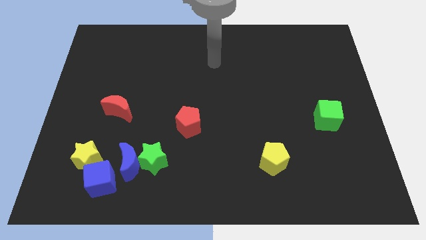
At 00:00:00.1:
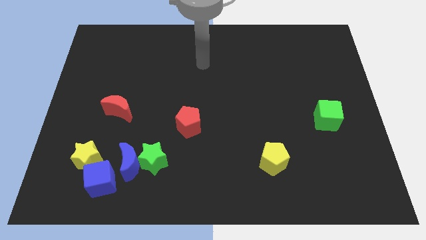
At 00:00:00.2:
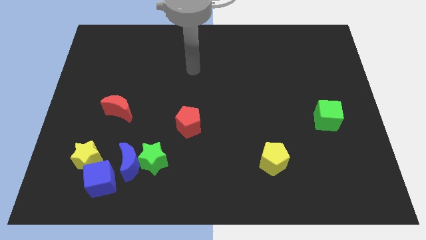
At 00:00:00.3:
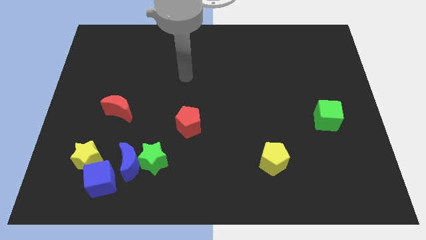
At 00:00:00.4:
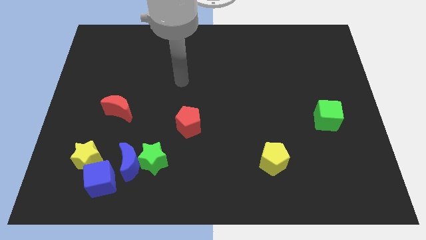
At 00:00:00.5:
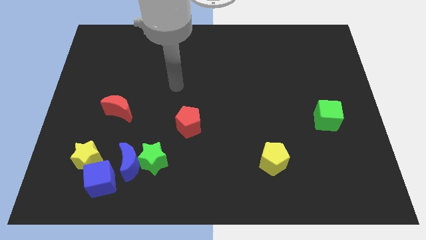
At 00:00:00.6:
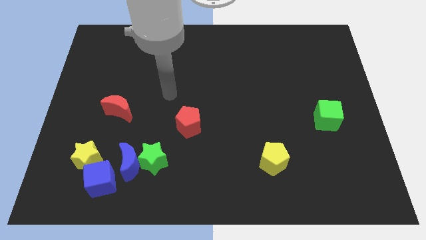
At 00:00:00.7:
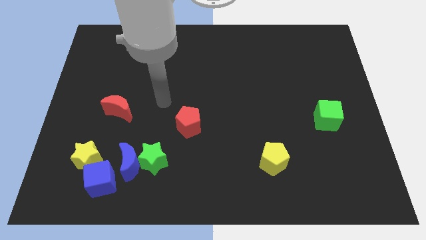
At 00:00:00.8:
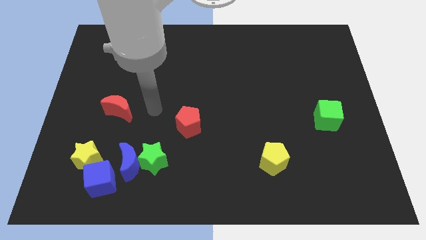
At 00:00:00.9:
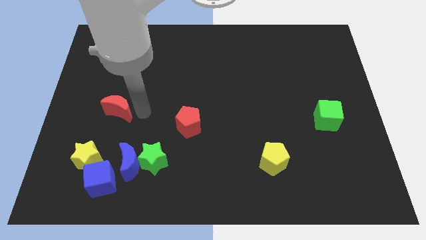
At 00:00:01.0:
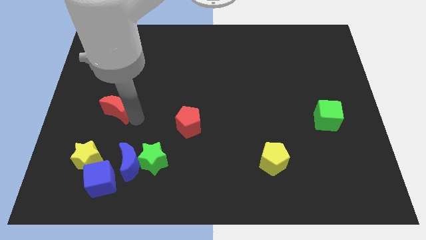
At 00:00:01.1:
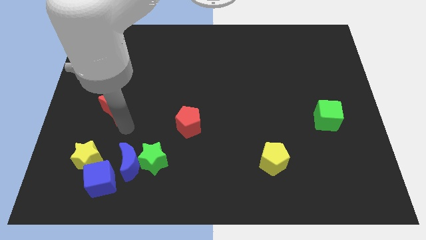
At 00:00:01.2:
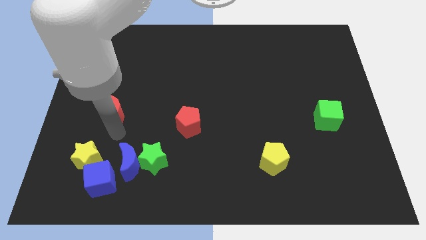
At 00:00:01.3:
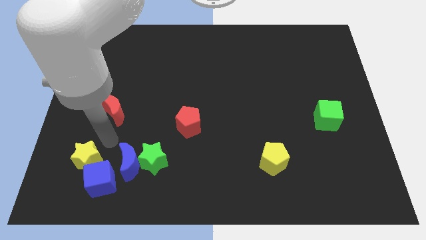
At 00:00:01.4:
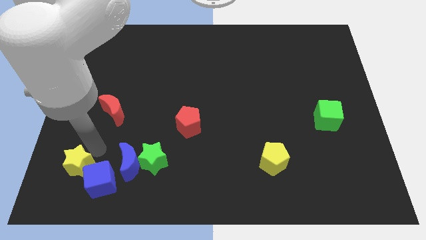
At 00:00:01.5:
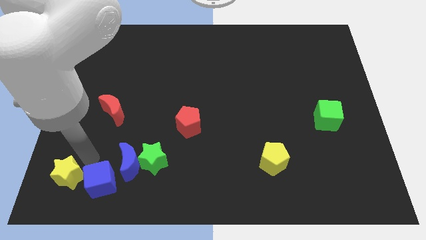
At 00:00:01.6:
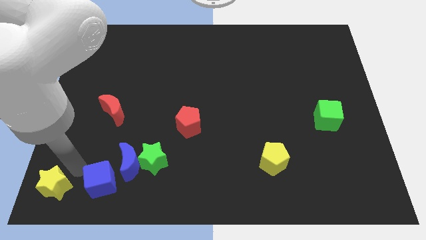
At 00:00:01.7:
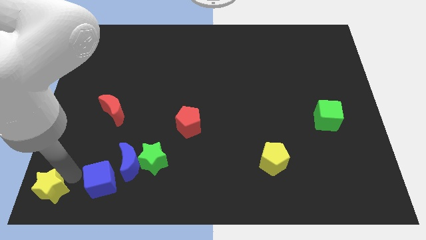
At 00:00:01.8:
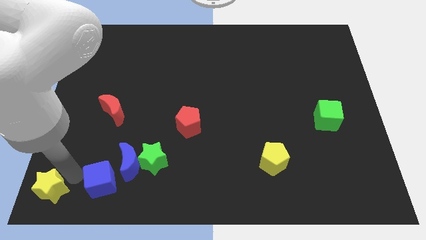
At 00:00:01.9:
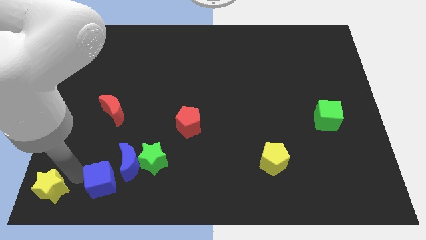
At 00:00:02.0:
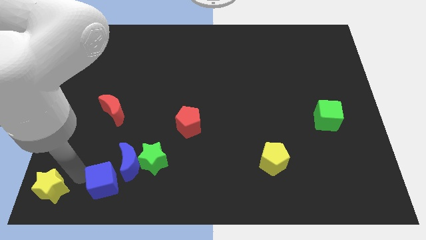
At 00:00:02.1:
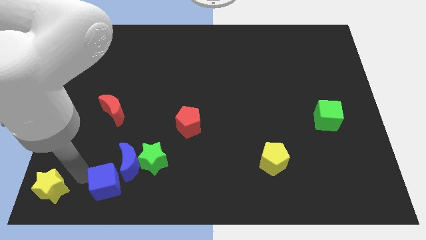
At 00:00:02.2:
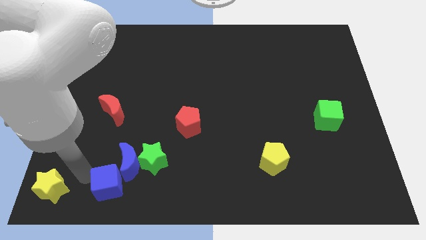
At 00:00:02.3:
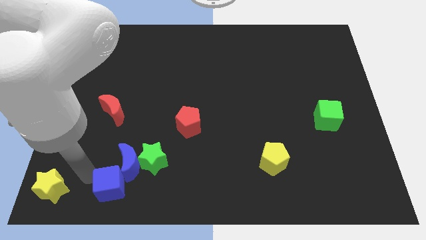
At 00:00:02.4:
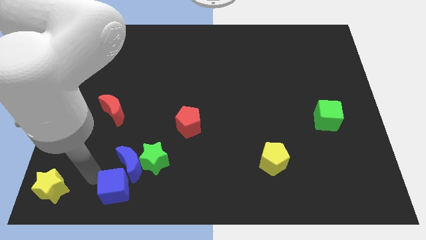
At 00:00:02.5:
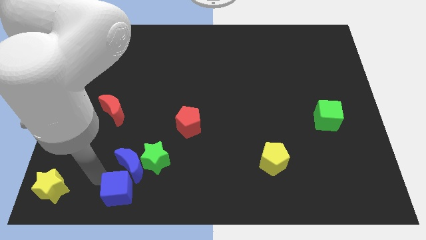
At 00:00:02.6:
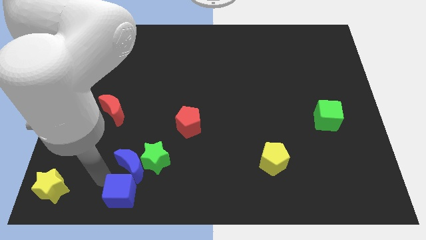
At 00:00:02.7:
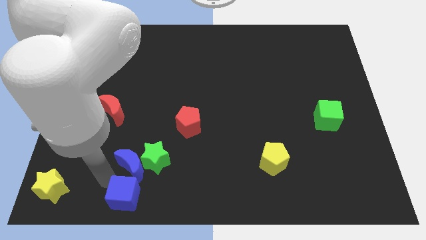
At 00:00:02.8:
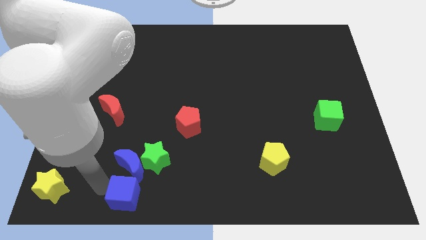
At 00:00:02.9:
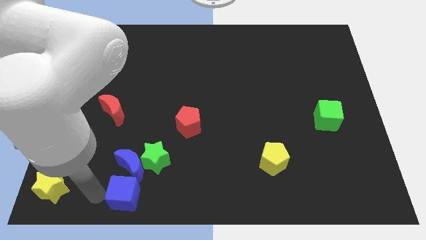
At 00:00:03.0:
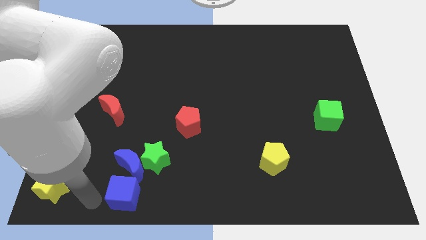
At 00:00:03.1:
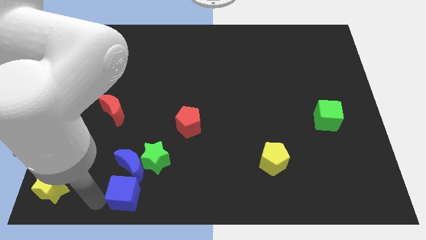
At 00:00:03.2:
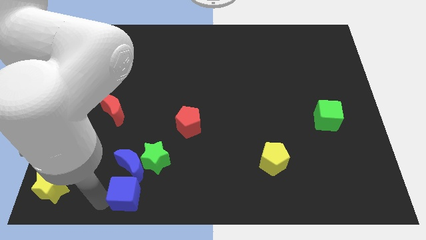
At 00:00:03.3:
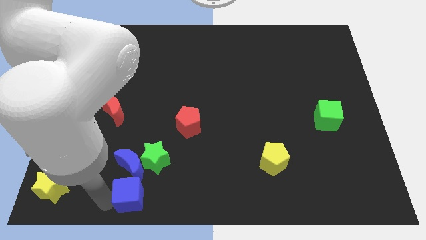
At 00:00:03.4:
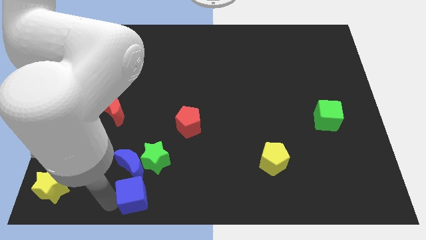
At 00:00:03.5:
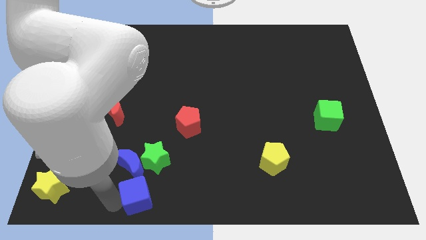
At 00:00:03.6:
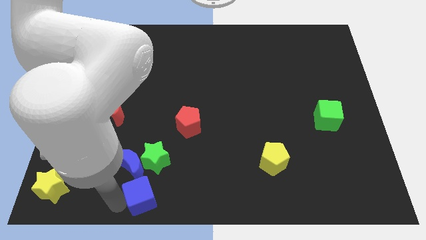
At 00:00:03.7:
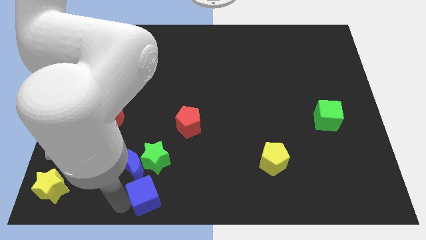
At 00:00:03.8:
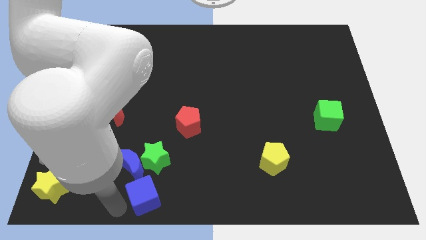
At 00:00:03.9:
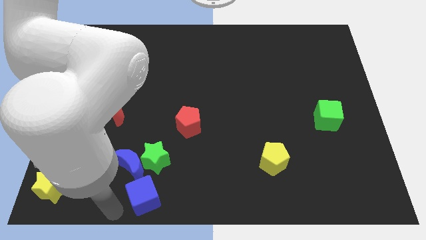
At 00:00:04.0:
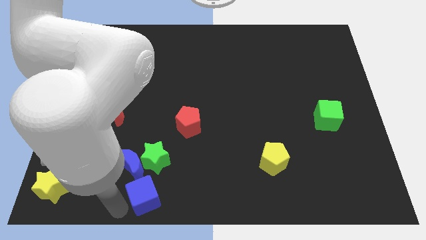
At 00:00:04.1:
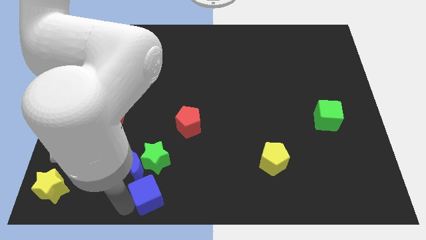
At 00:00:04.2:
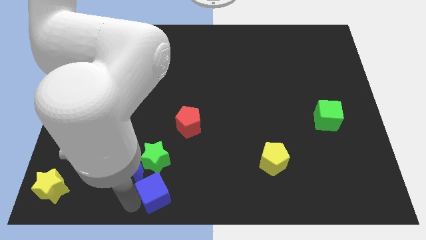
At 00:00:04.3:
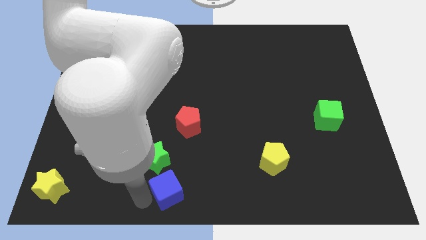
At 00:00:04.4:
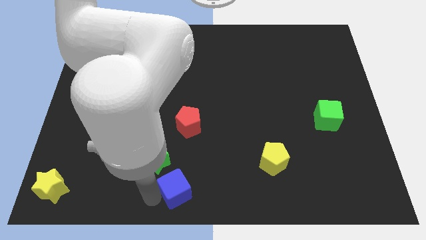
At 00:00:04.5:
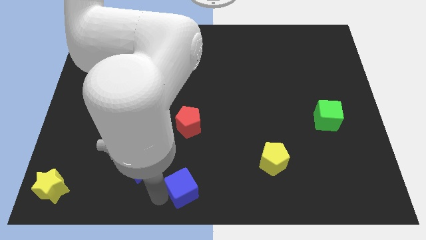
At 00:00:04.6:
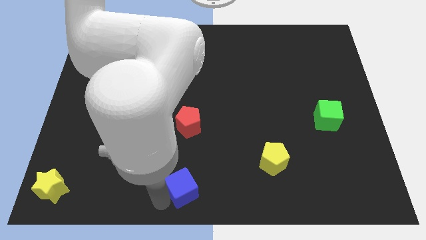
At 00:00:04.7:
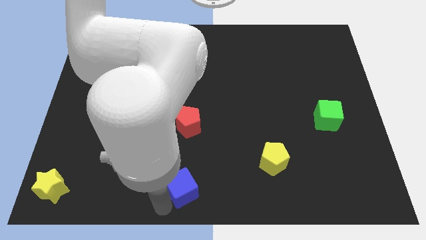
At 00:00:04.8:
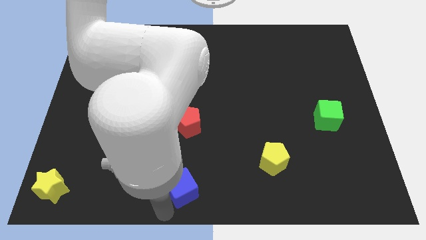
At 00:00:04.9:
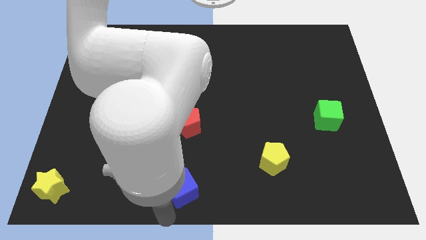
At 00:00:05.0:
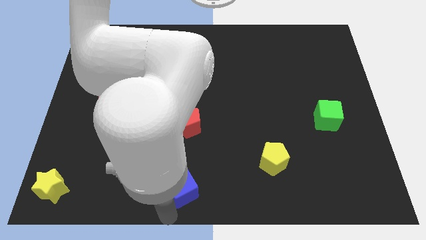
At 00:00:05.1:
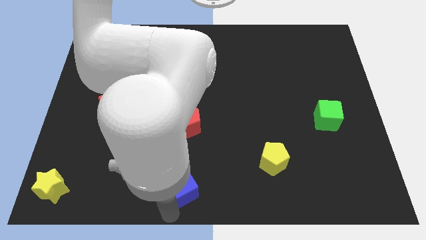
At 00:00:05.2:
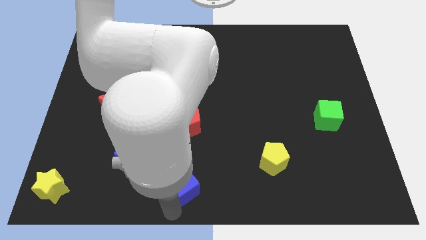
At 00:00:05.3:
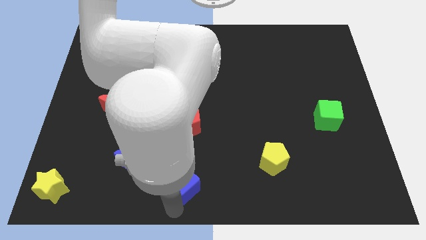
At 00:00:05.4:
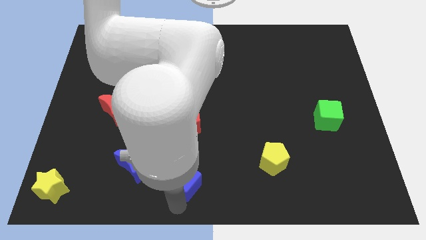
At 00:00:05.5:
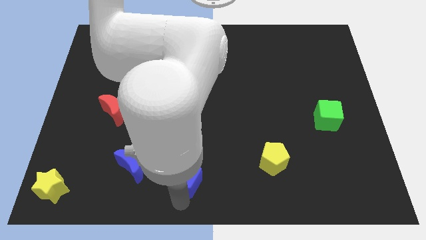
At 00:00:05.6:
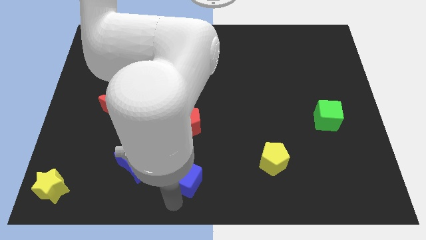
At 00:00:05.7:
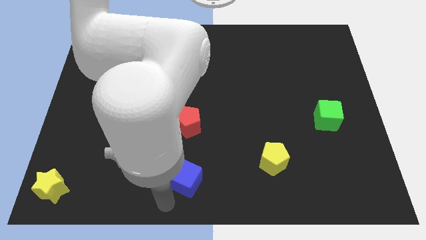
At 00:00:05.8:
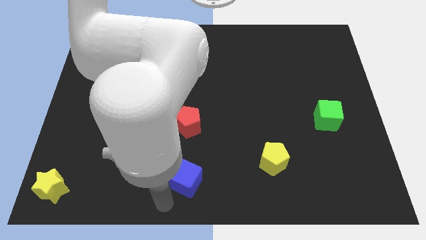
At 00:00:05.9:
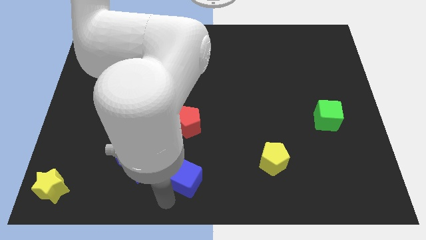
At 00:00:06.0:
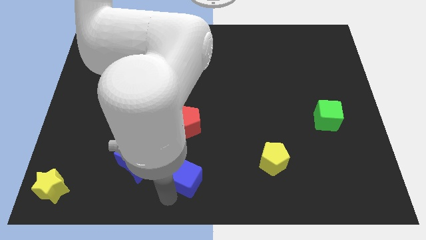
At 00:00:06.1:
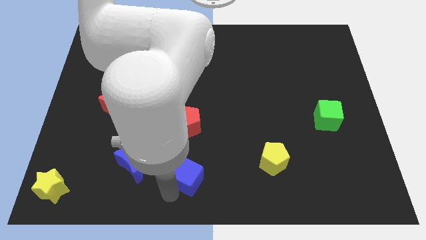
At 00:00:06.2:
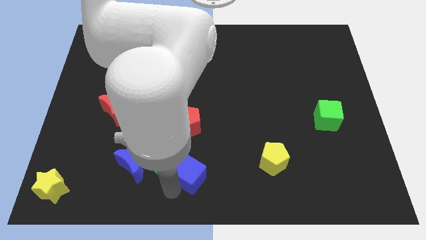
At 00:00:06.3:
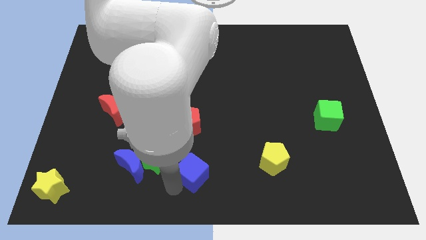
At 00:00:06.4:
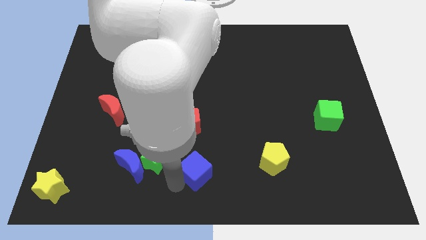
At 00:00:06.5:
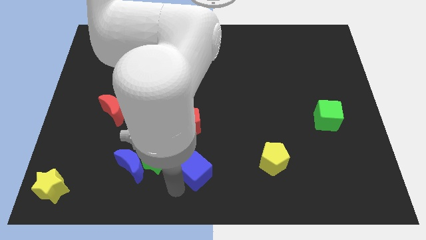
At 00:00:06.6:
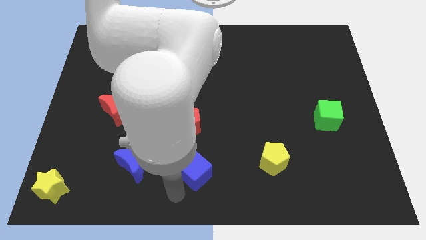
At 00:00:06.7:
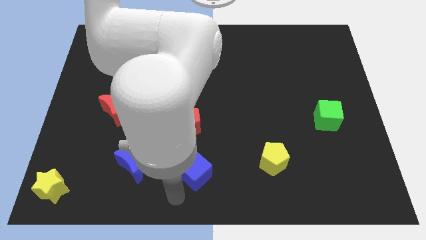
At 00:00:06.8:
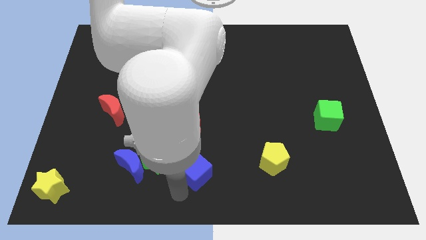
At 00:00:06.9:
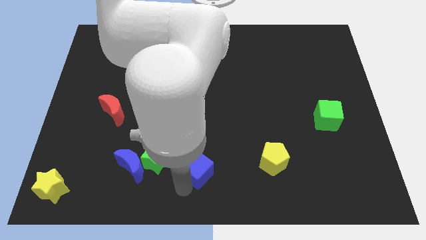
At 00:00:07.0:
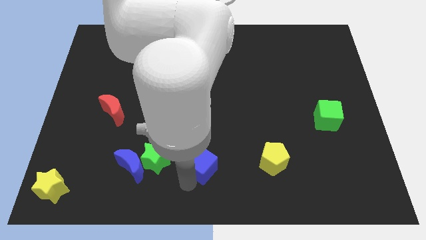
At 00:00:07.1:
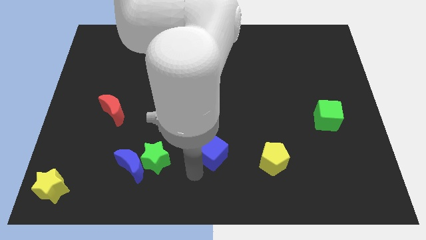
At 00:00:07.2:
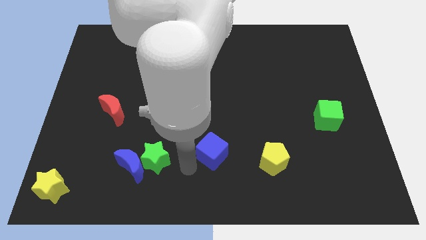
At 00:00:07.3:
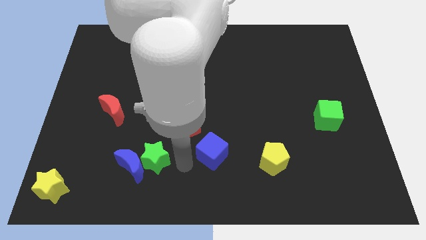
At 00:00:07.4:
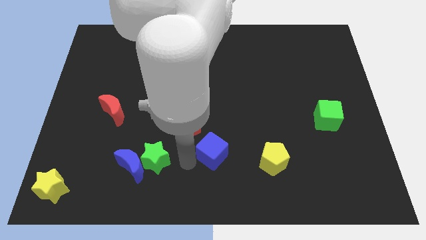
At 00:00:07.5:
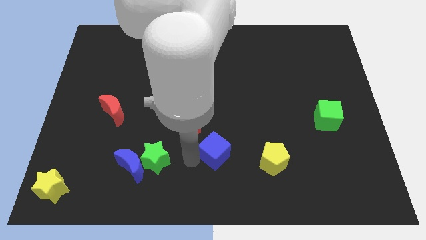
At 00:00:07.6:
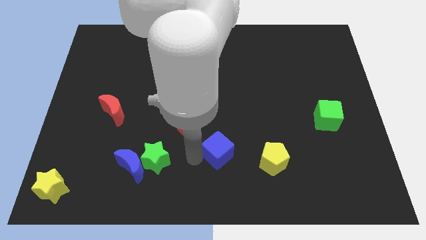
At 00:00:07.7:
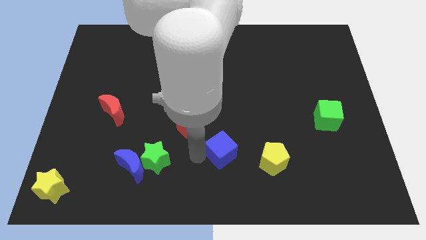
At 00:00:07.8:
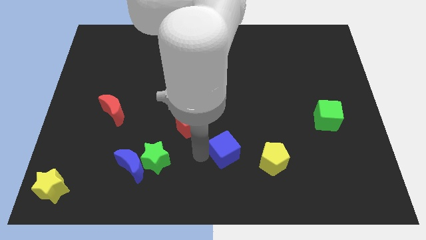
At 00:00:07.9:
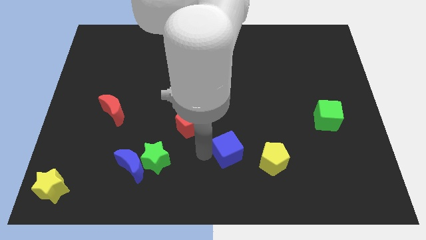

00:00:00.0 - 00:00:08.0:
move the blue cube to the top left of the yellow pentagon
